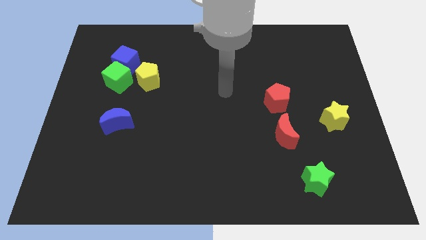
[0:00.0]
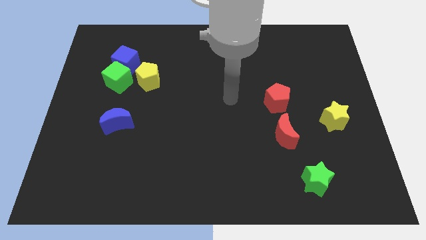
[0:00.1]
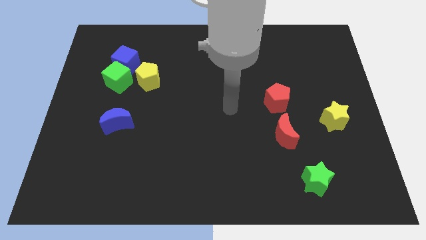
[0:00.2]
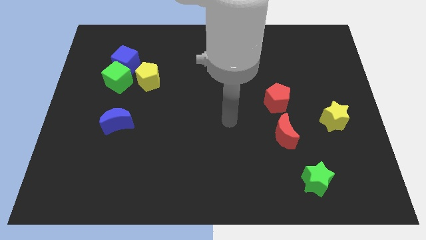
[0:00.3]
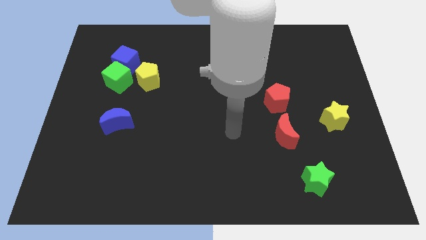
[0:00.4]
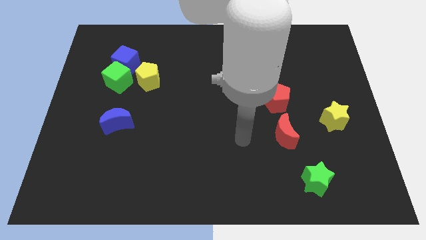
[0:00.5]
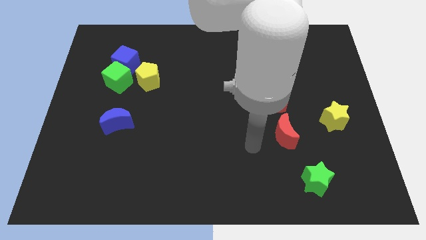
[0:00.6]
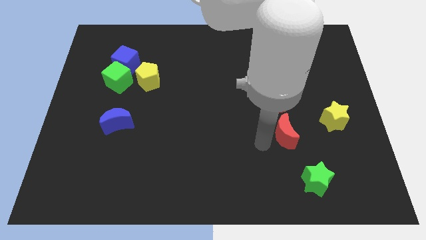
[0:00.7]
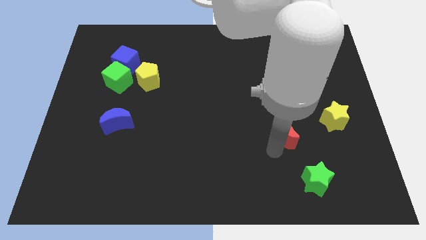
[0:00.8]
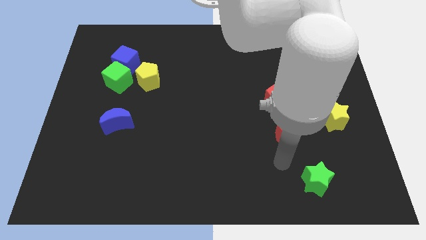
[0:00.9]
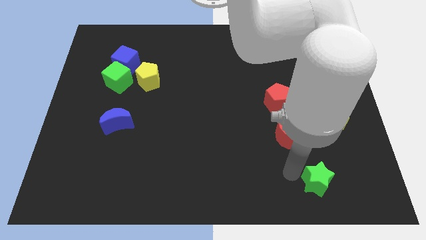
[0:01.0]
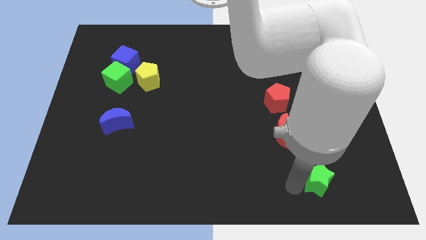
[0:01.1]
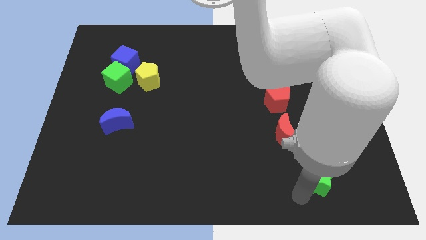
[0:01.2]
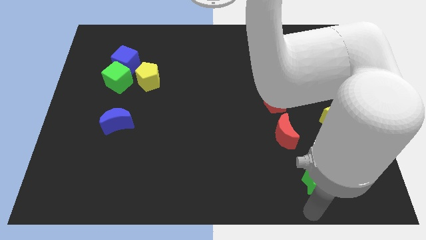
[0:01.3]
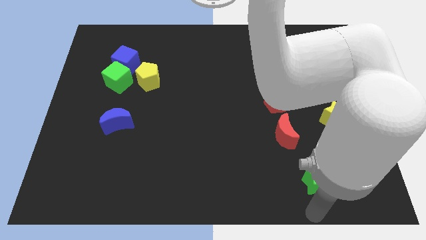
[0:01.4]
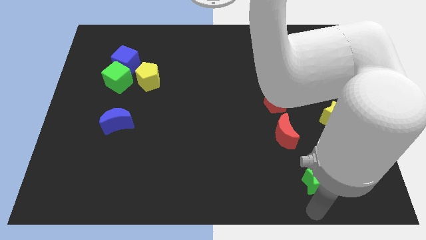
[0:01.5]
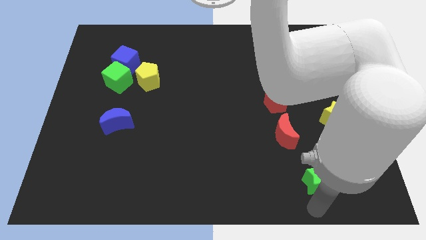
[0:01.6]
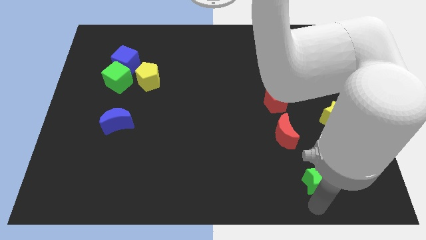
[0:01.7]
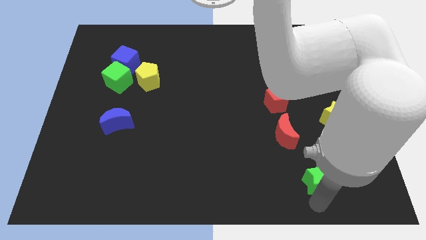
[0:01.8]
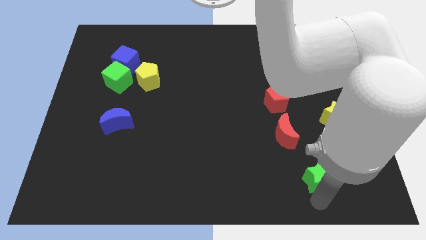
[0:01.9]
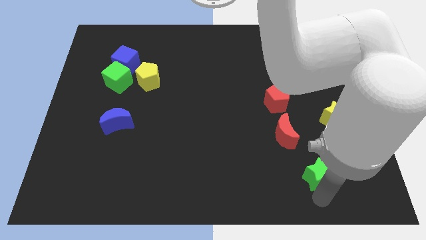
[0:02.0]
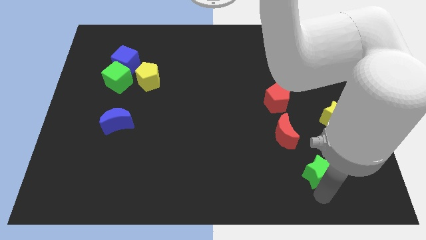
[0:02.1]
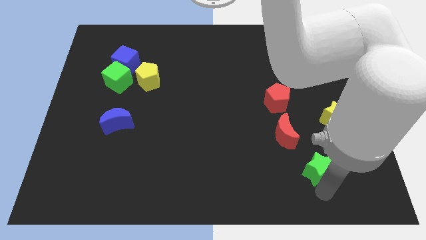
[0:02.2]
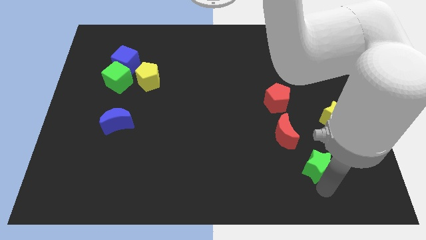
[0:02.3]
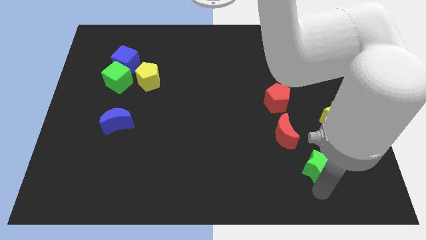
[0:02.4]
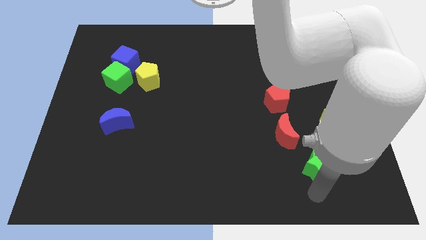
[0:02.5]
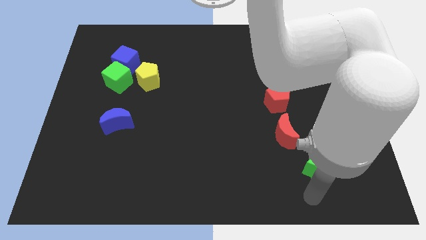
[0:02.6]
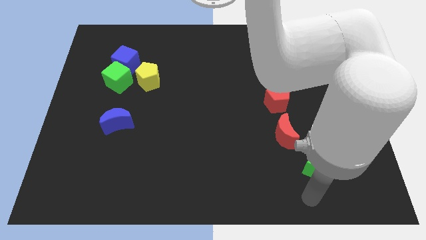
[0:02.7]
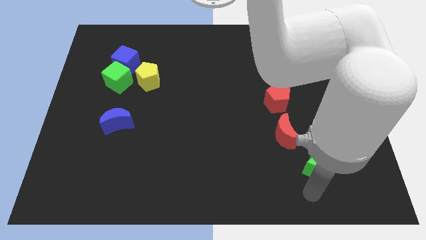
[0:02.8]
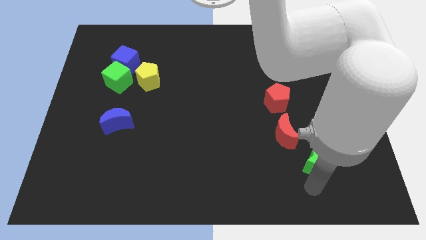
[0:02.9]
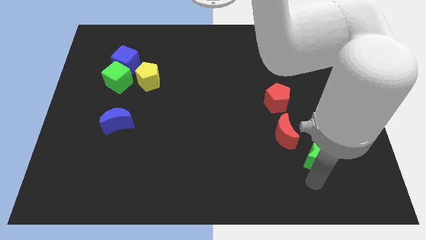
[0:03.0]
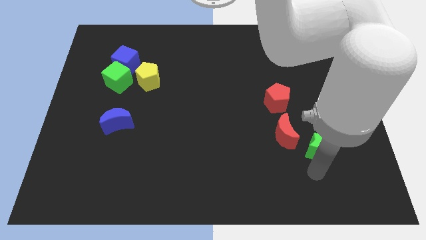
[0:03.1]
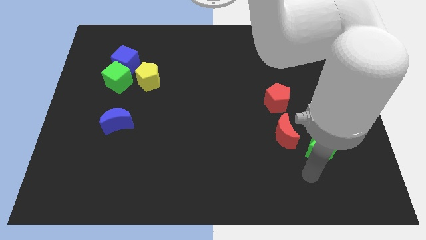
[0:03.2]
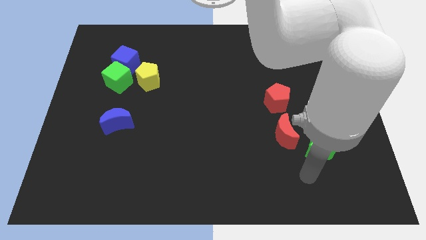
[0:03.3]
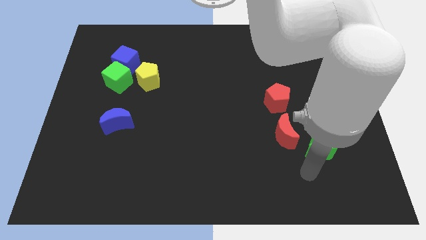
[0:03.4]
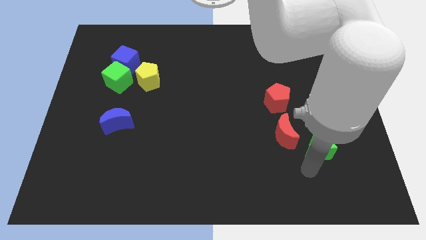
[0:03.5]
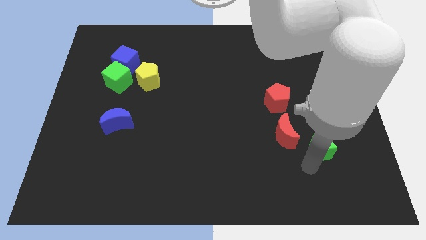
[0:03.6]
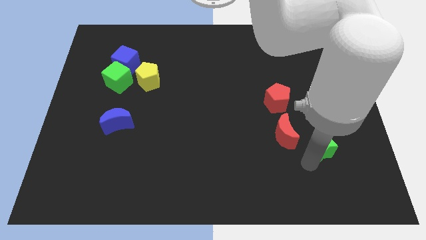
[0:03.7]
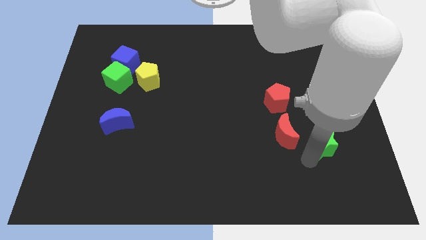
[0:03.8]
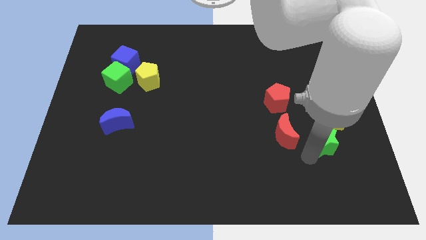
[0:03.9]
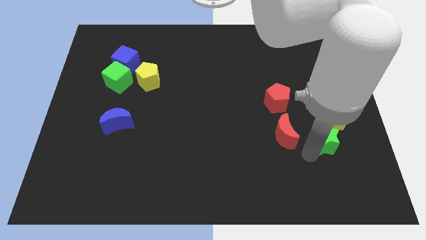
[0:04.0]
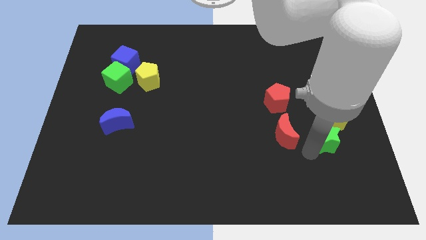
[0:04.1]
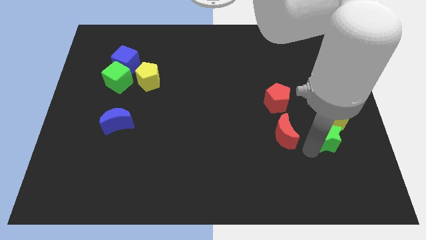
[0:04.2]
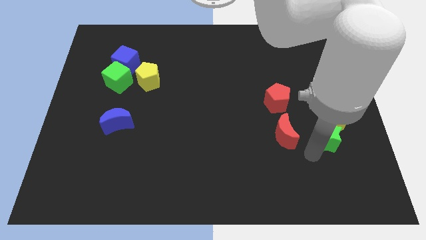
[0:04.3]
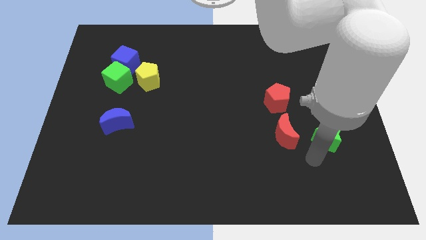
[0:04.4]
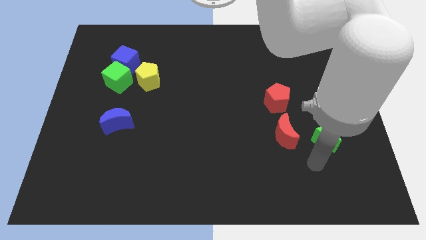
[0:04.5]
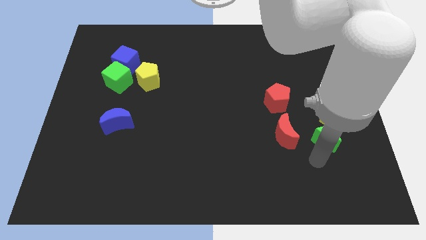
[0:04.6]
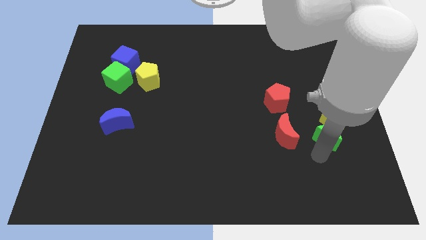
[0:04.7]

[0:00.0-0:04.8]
put the green star towards the yellow star

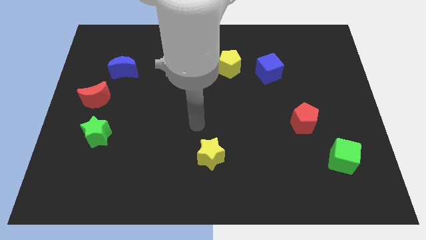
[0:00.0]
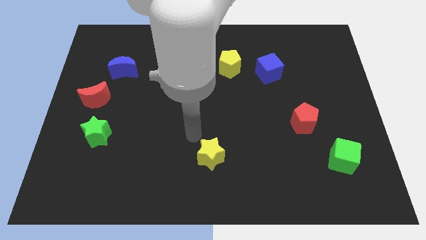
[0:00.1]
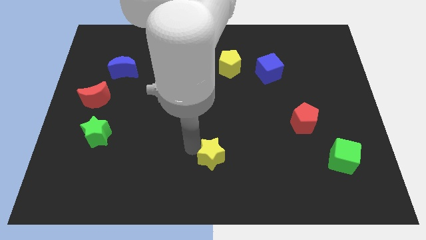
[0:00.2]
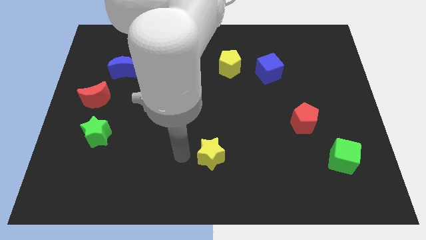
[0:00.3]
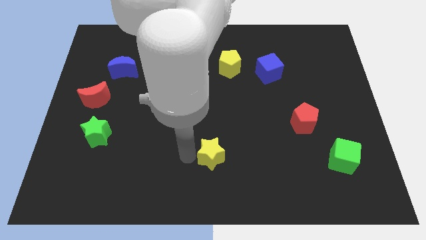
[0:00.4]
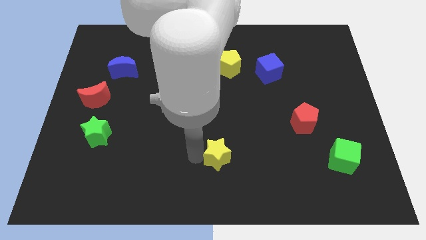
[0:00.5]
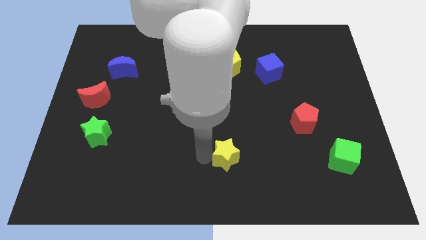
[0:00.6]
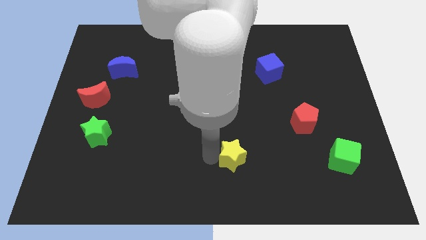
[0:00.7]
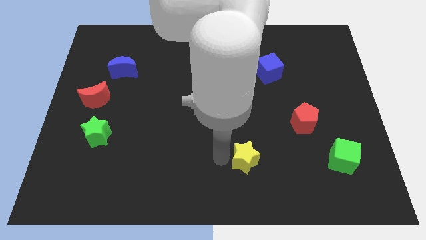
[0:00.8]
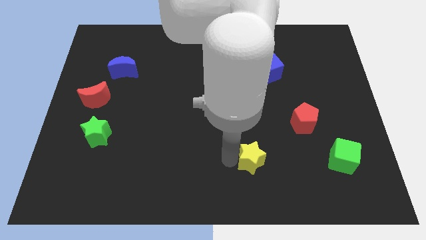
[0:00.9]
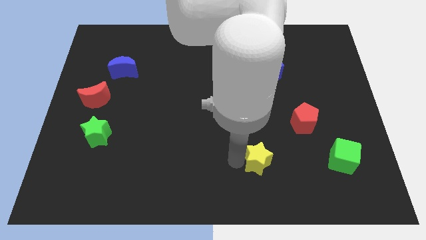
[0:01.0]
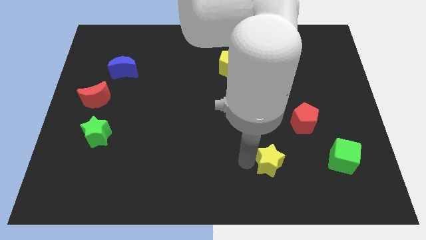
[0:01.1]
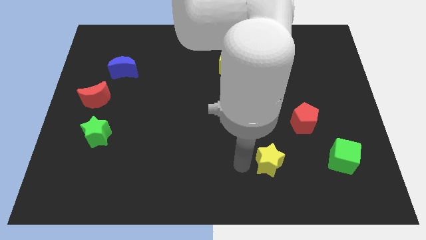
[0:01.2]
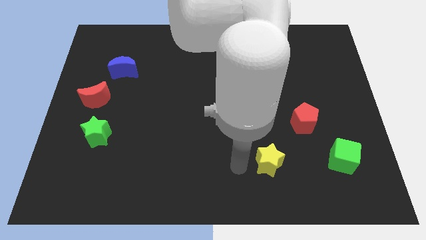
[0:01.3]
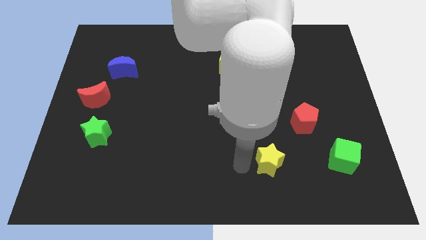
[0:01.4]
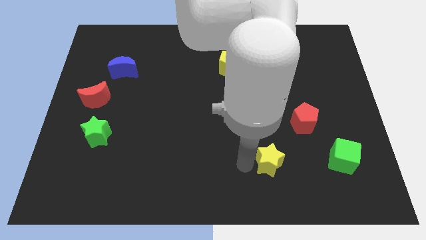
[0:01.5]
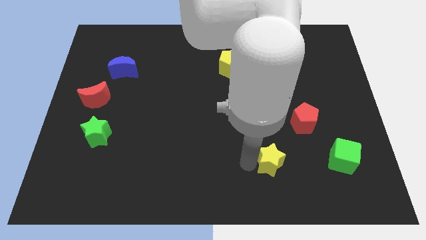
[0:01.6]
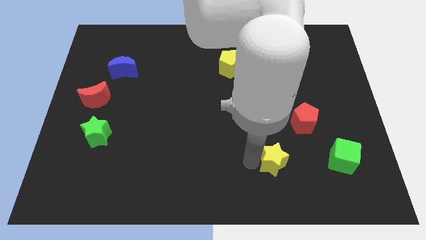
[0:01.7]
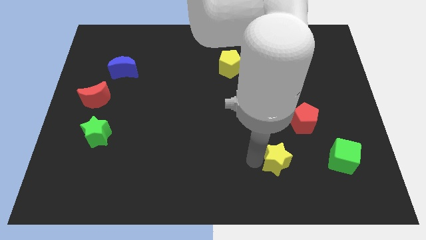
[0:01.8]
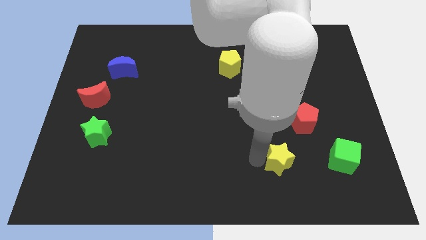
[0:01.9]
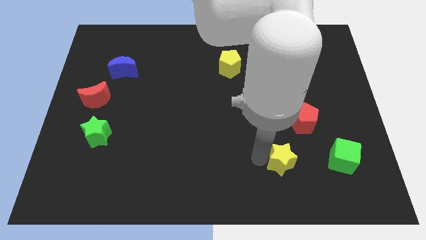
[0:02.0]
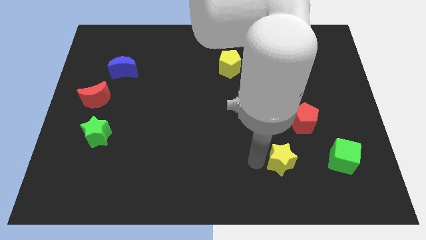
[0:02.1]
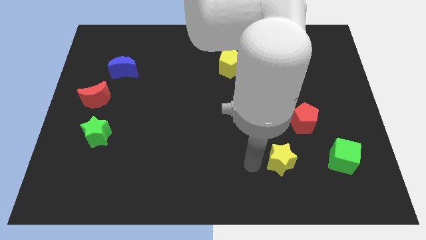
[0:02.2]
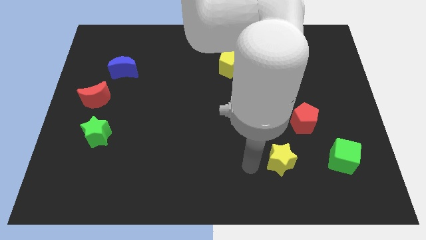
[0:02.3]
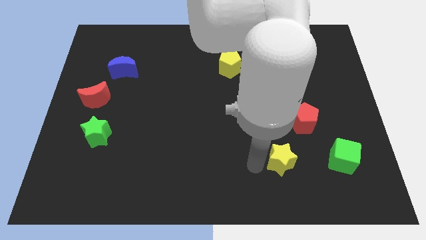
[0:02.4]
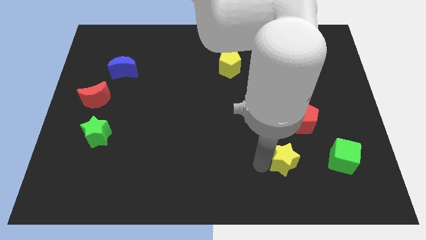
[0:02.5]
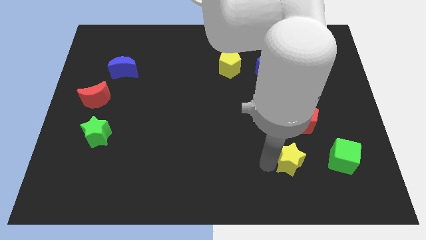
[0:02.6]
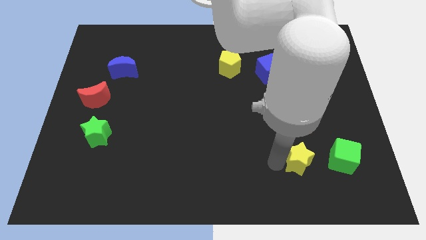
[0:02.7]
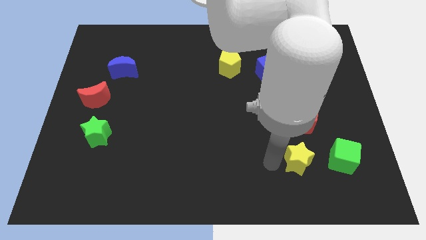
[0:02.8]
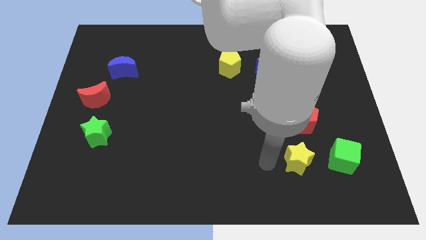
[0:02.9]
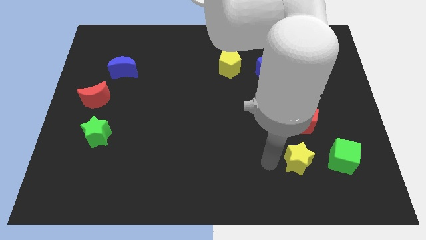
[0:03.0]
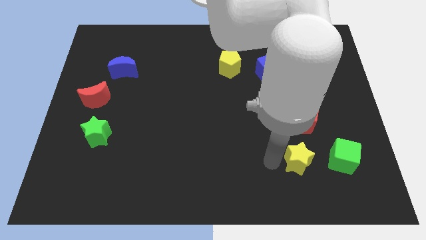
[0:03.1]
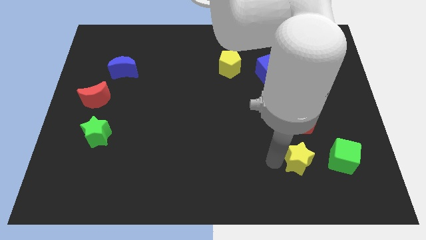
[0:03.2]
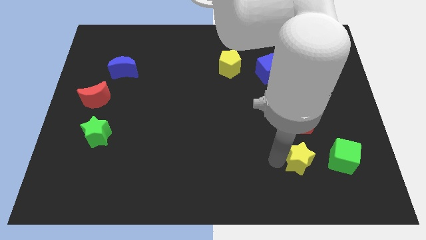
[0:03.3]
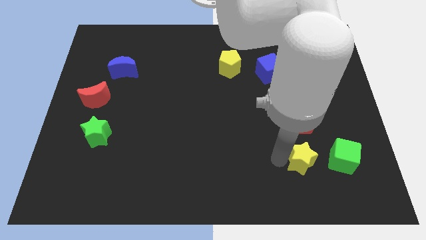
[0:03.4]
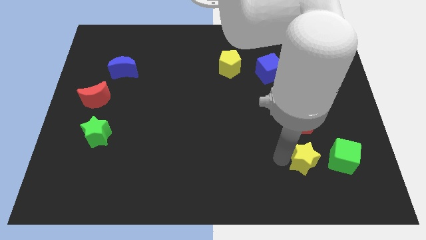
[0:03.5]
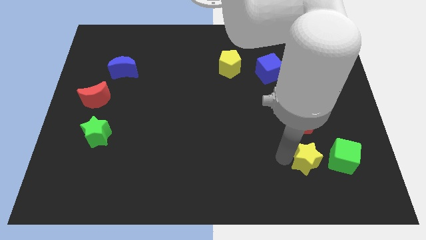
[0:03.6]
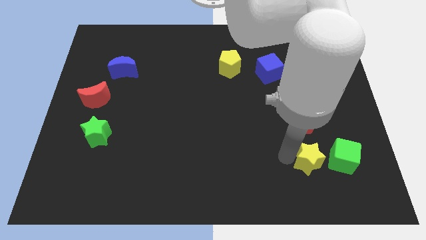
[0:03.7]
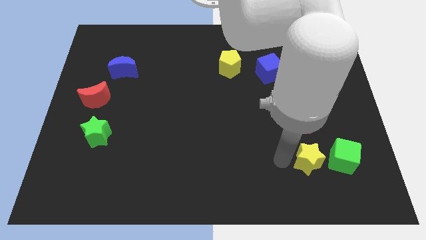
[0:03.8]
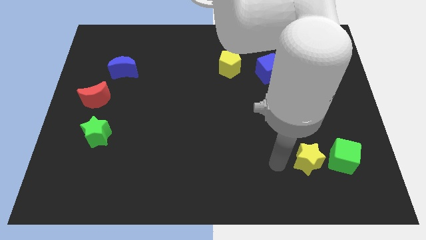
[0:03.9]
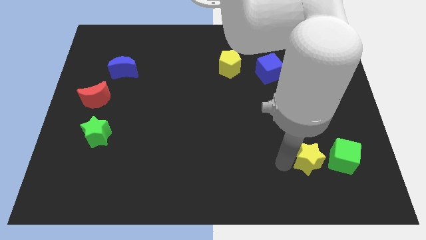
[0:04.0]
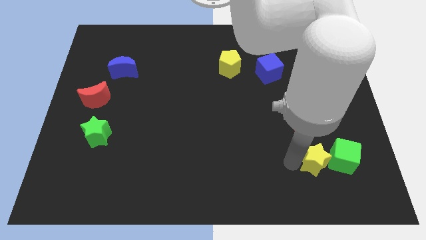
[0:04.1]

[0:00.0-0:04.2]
push the yellow star next to the green cube
